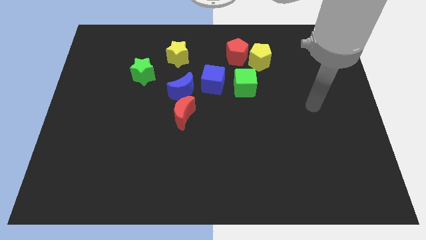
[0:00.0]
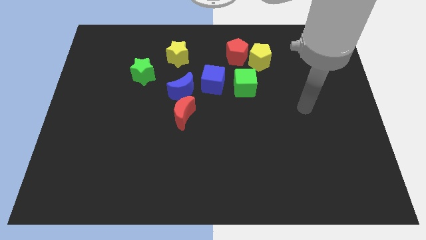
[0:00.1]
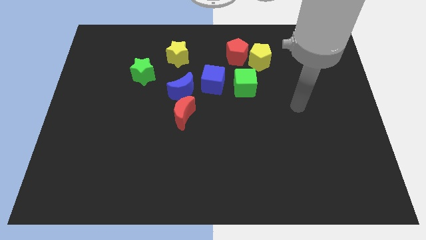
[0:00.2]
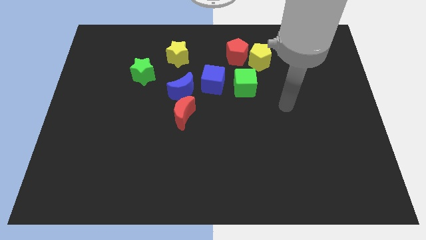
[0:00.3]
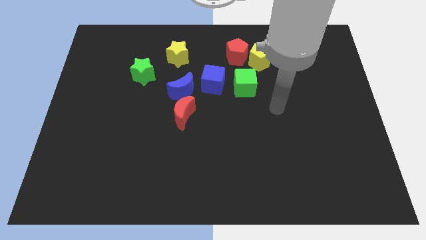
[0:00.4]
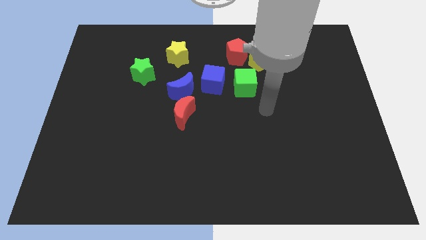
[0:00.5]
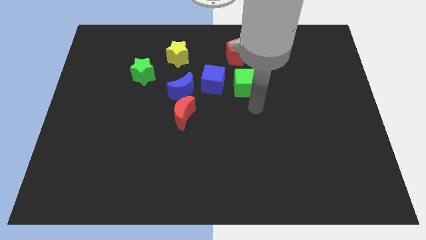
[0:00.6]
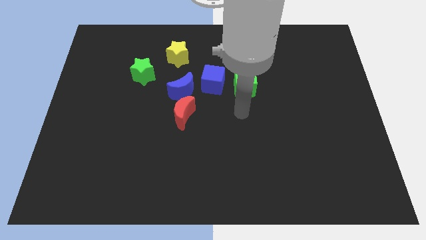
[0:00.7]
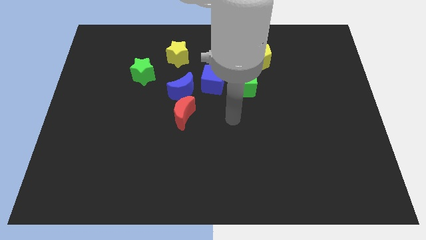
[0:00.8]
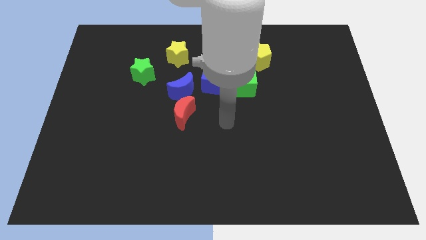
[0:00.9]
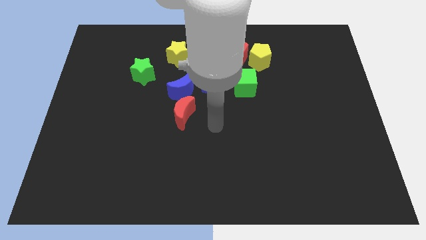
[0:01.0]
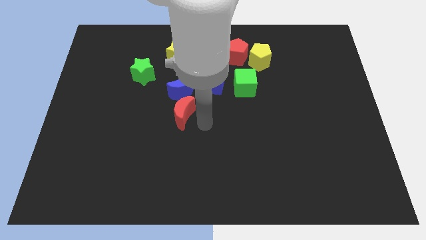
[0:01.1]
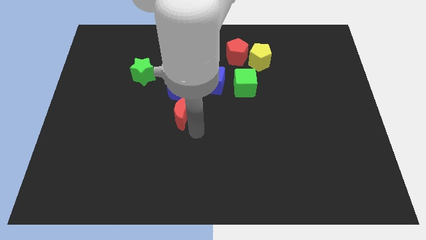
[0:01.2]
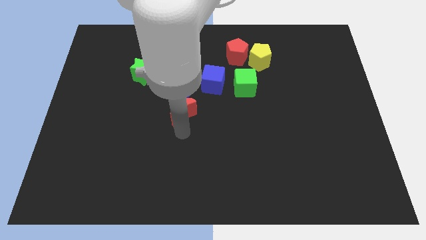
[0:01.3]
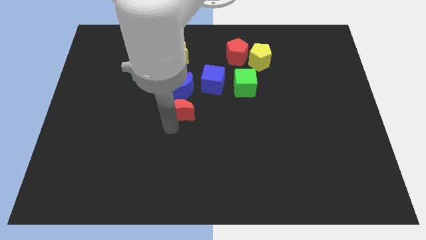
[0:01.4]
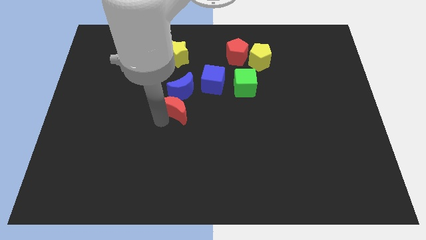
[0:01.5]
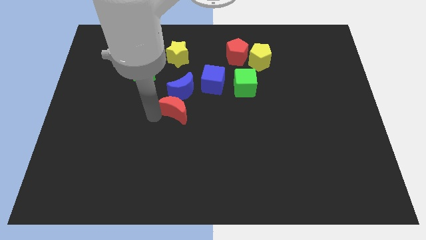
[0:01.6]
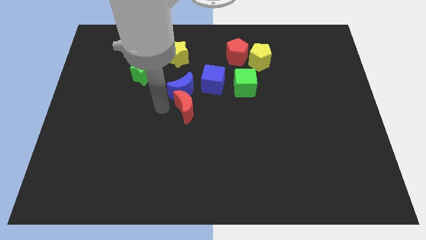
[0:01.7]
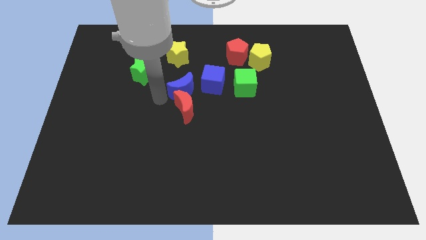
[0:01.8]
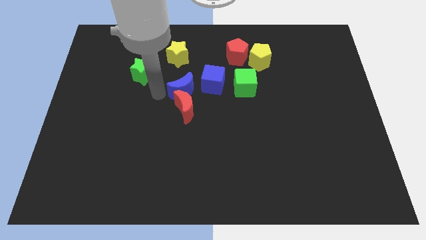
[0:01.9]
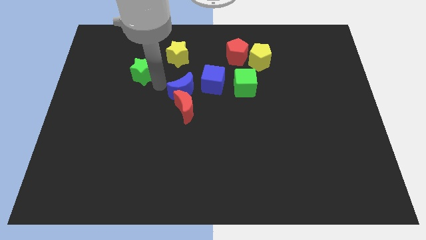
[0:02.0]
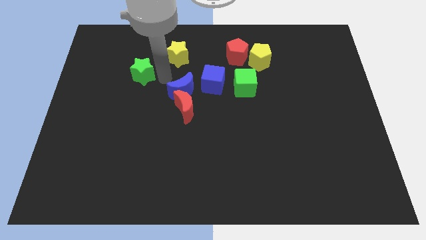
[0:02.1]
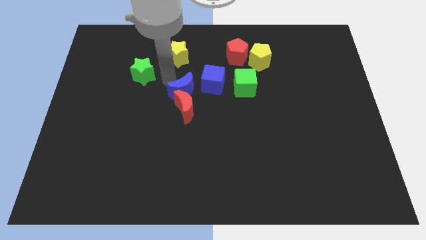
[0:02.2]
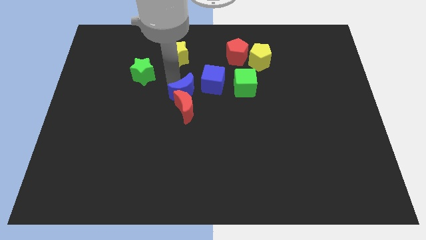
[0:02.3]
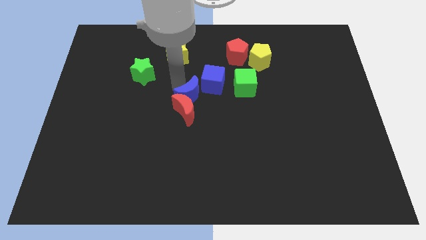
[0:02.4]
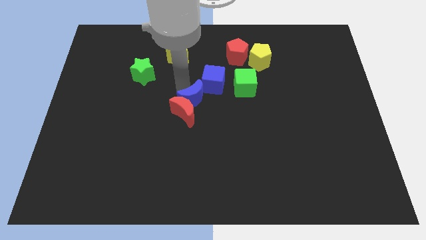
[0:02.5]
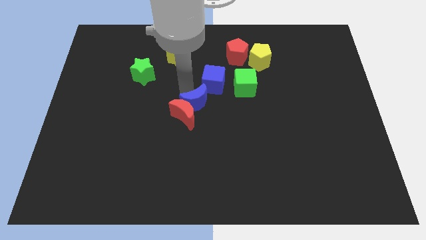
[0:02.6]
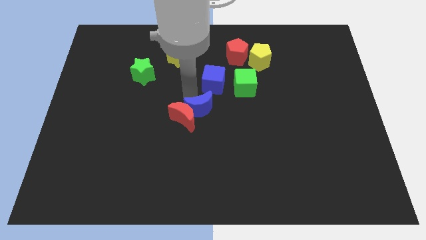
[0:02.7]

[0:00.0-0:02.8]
slightly slide the blue moon diagonally down and right

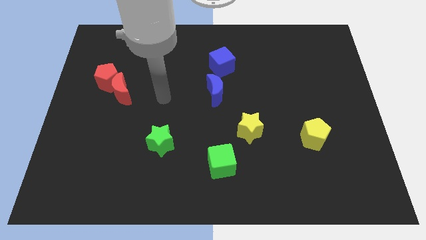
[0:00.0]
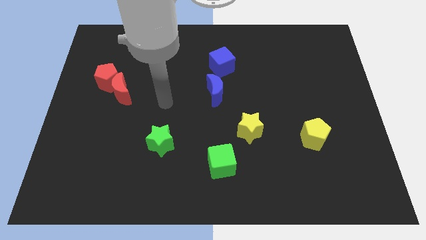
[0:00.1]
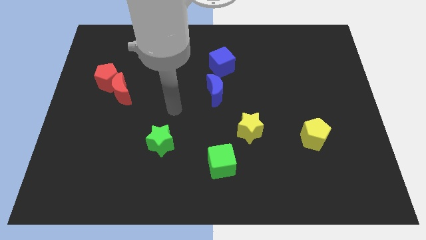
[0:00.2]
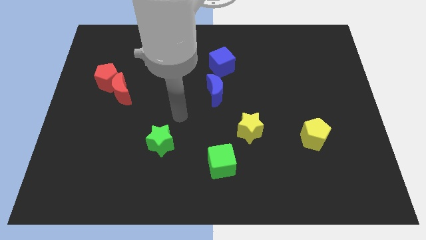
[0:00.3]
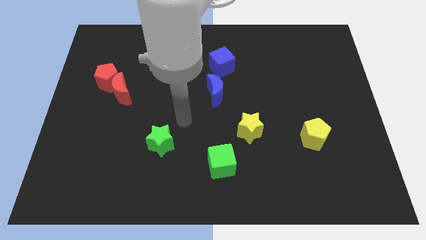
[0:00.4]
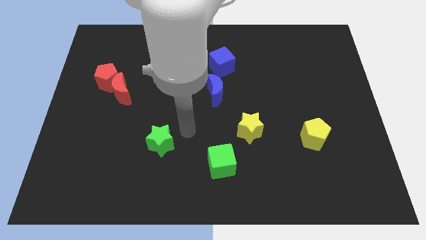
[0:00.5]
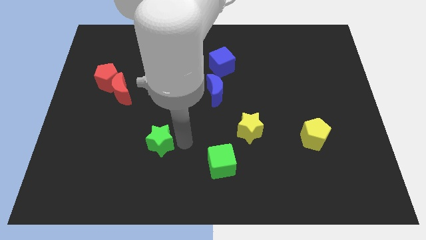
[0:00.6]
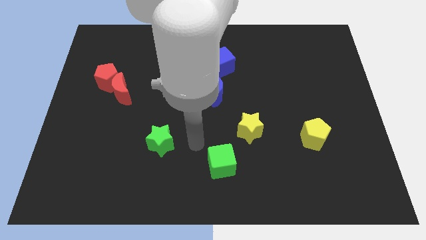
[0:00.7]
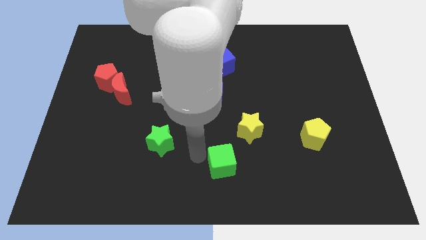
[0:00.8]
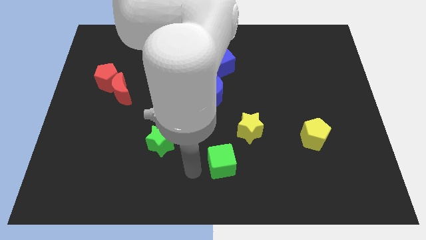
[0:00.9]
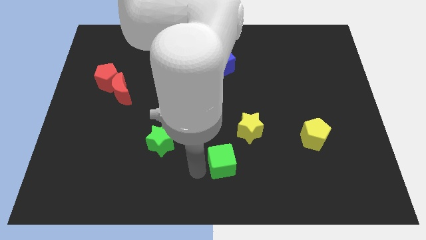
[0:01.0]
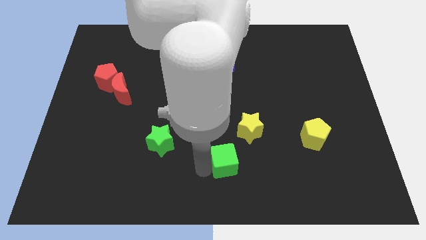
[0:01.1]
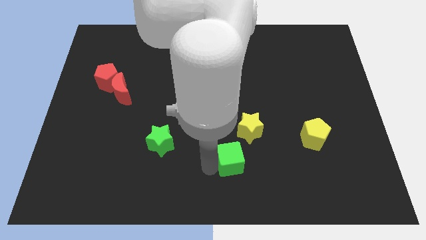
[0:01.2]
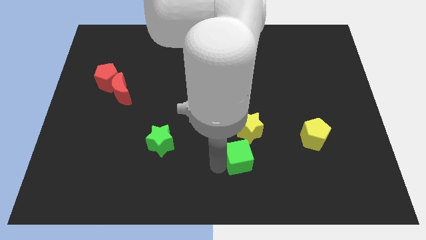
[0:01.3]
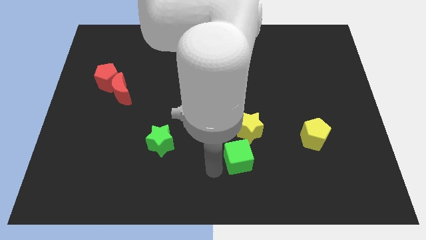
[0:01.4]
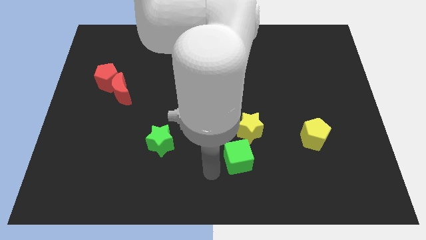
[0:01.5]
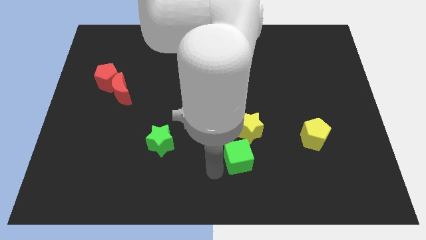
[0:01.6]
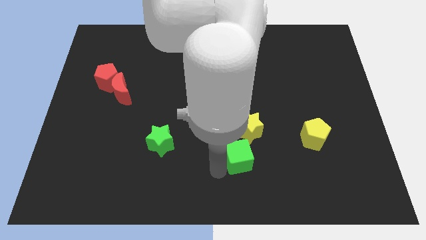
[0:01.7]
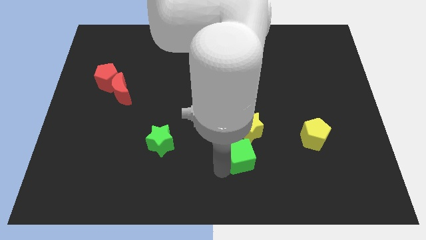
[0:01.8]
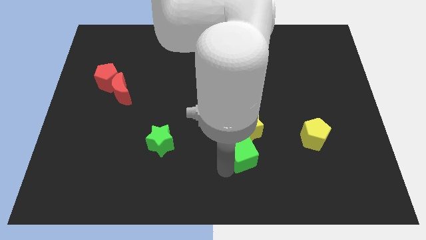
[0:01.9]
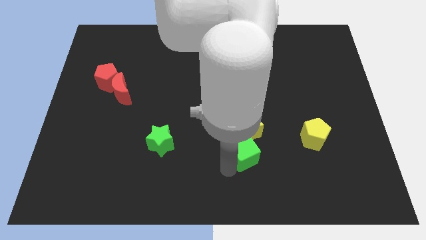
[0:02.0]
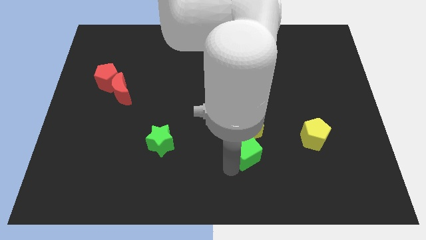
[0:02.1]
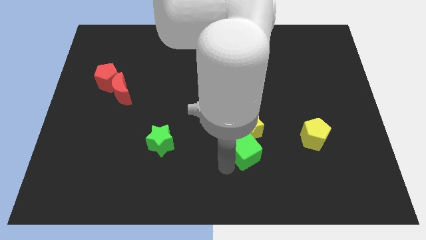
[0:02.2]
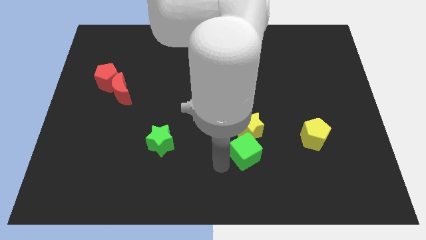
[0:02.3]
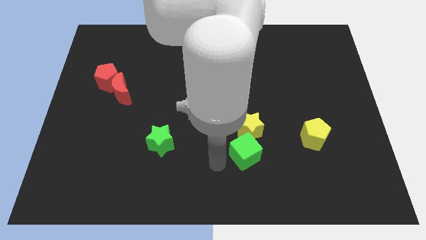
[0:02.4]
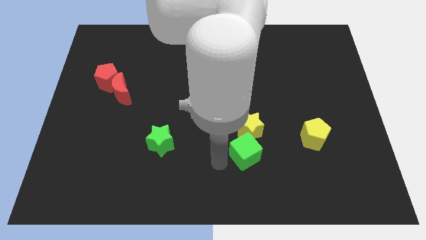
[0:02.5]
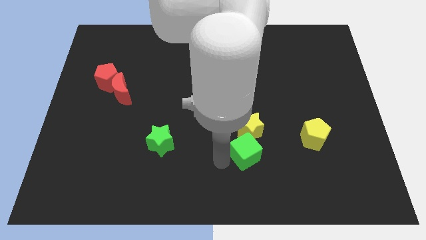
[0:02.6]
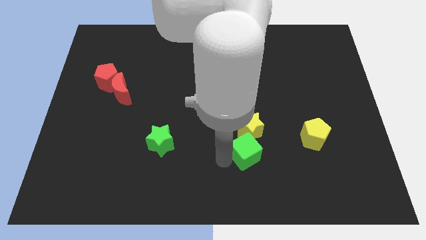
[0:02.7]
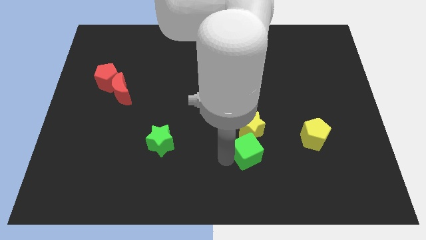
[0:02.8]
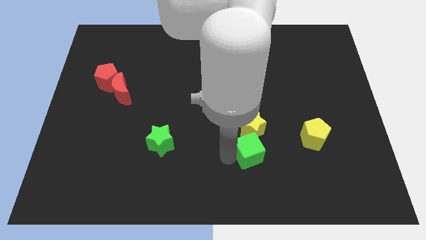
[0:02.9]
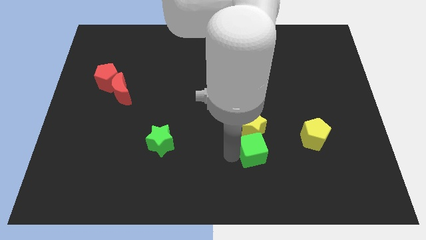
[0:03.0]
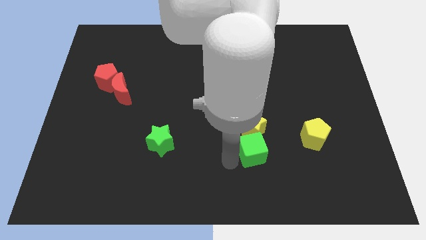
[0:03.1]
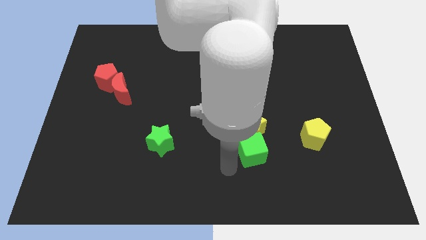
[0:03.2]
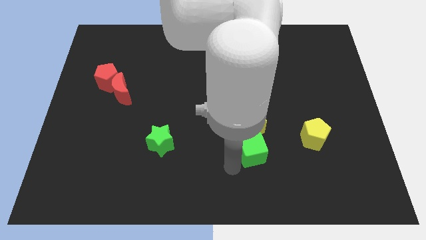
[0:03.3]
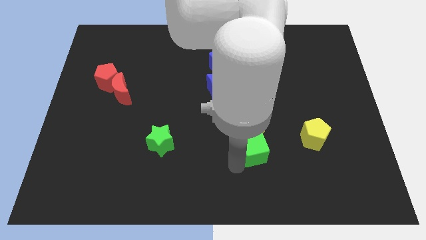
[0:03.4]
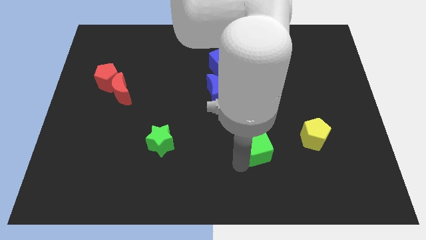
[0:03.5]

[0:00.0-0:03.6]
slightly move the green cube up and right diagonally

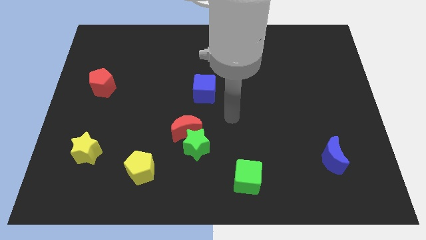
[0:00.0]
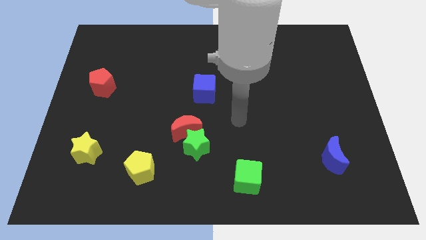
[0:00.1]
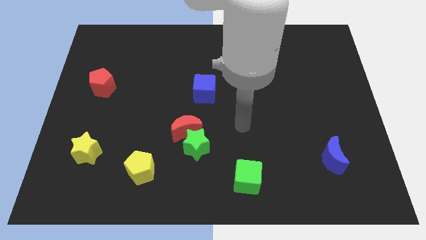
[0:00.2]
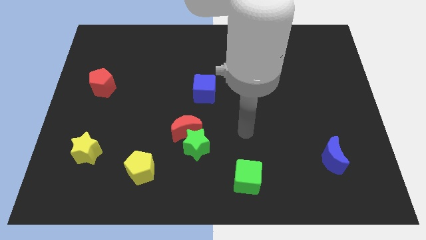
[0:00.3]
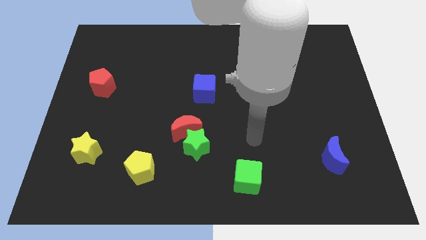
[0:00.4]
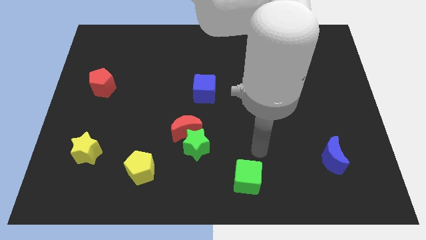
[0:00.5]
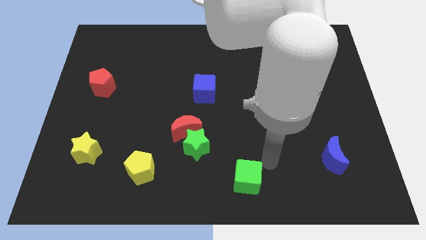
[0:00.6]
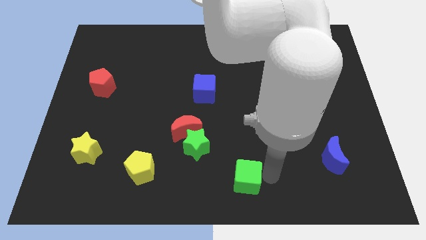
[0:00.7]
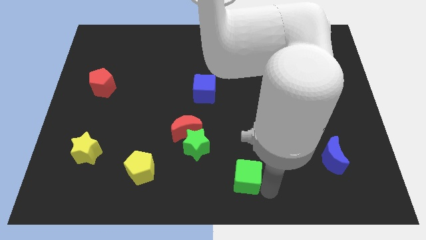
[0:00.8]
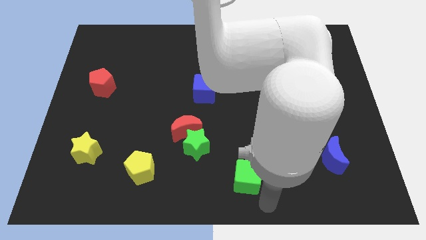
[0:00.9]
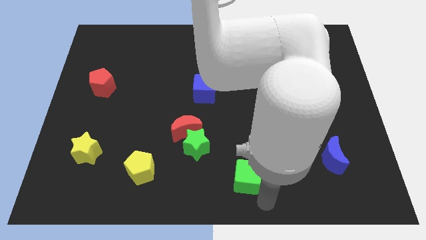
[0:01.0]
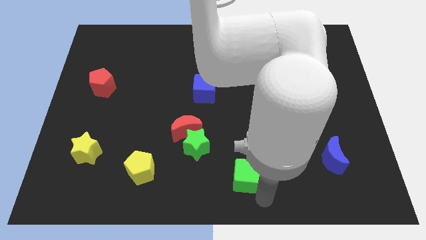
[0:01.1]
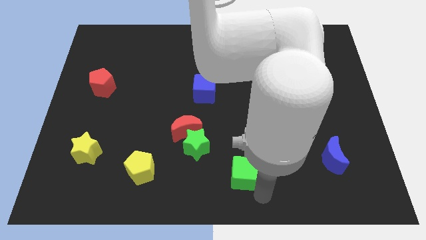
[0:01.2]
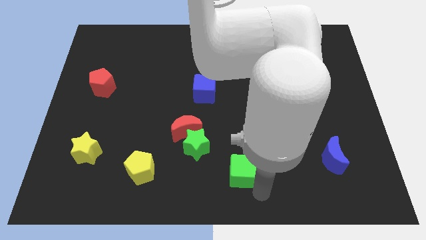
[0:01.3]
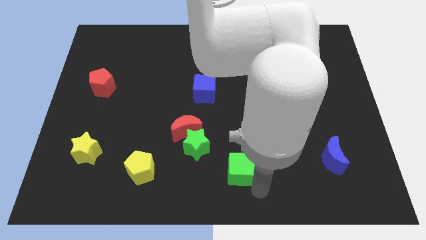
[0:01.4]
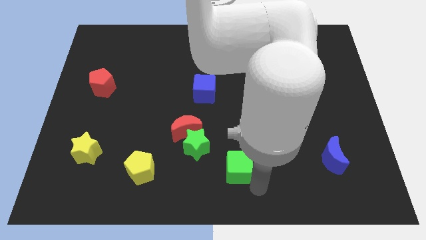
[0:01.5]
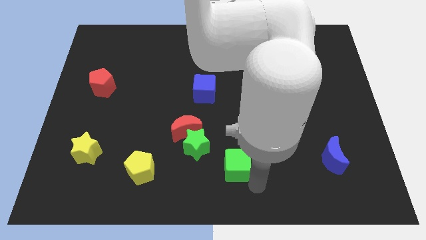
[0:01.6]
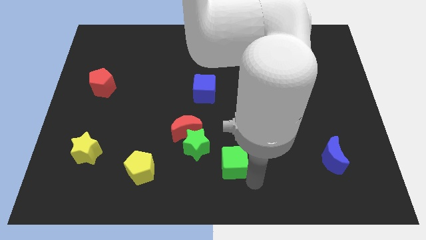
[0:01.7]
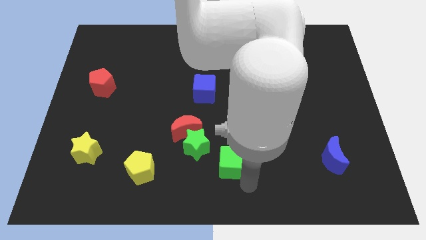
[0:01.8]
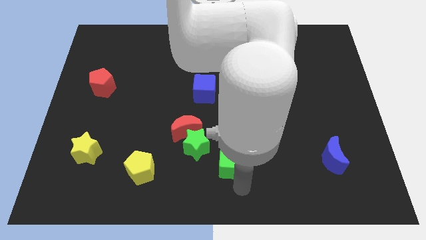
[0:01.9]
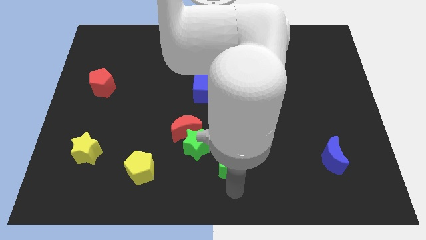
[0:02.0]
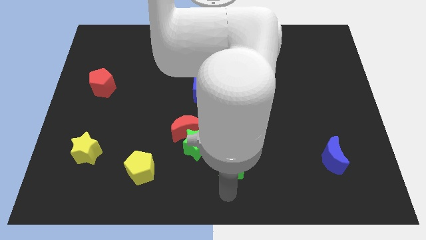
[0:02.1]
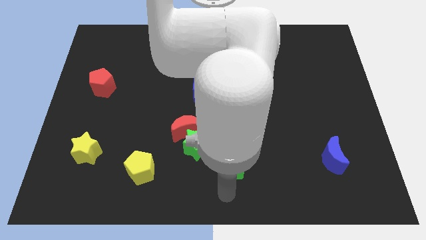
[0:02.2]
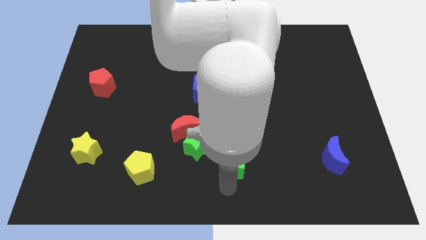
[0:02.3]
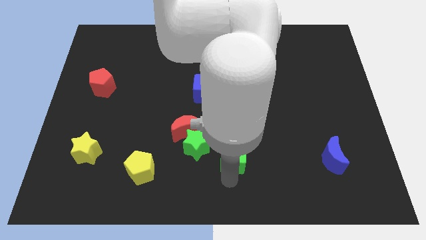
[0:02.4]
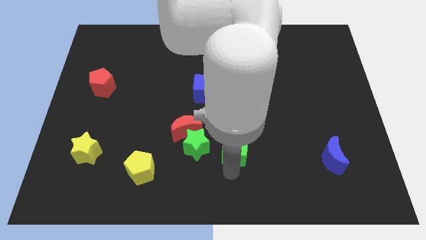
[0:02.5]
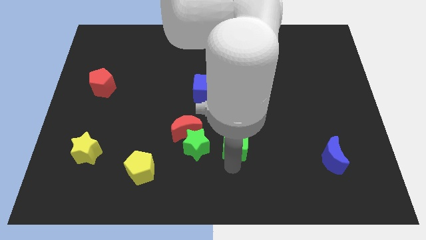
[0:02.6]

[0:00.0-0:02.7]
slide the green cube upwards a little bit
